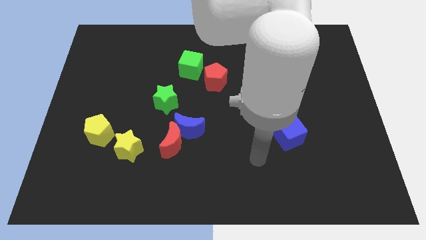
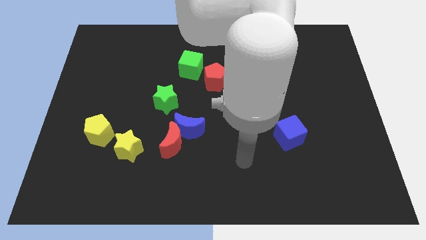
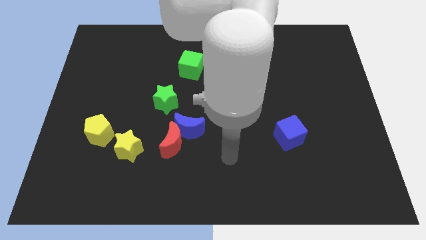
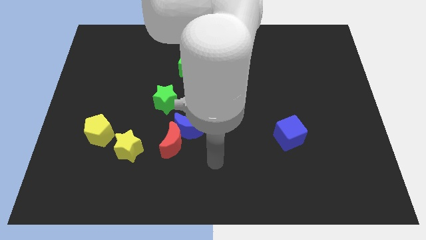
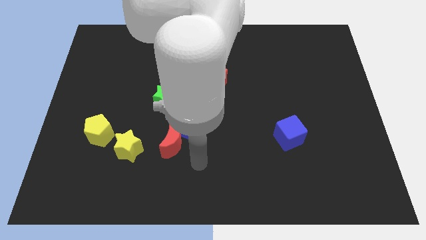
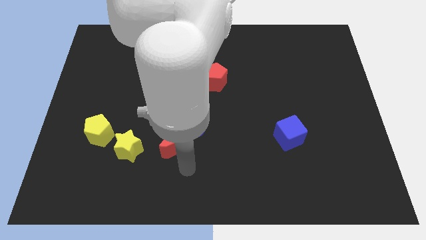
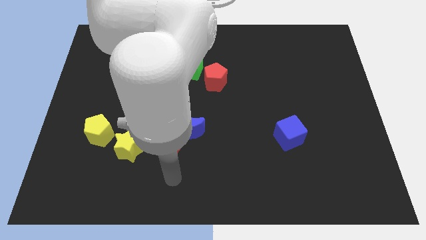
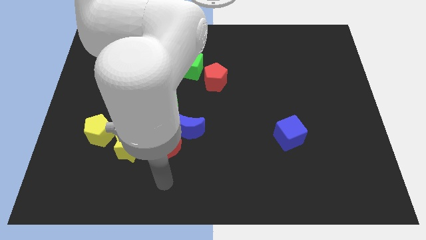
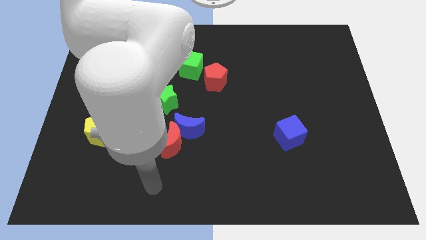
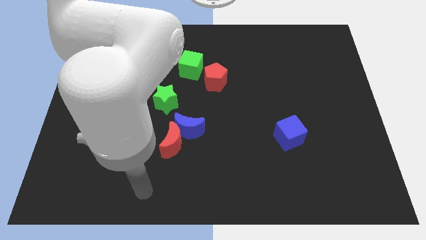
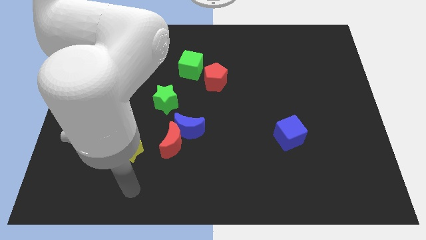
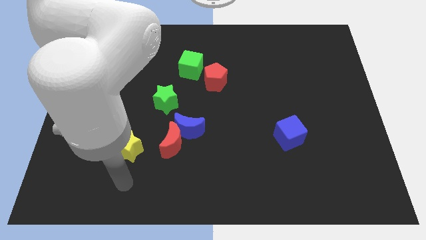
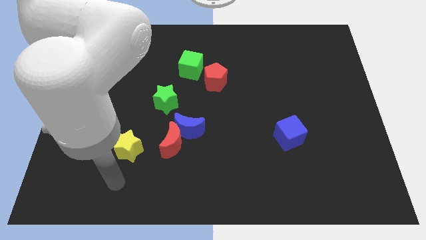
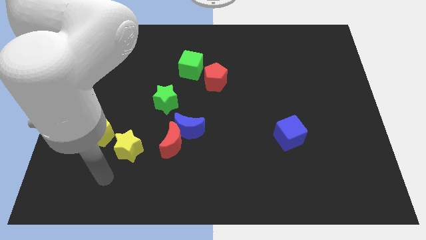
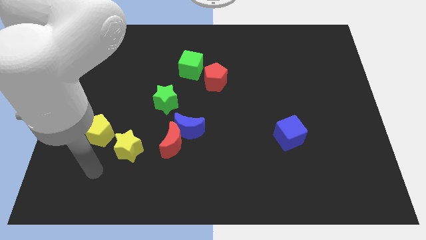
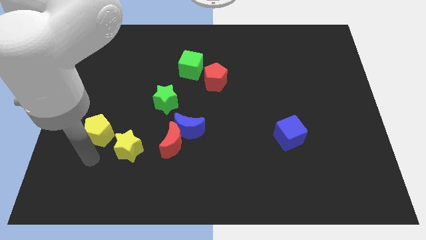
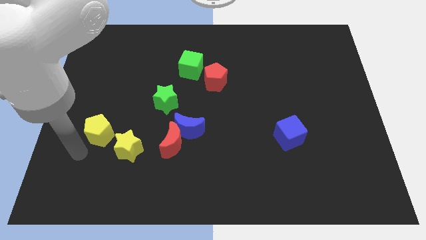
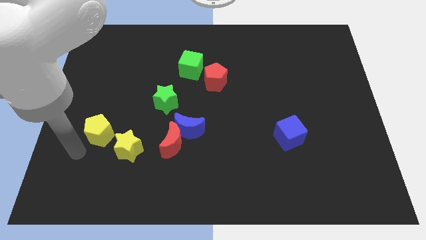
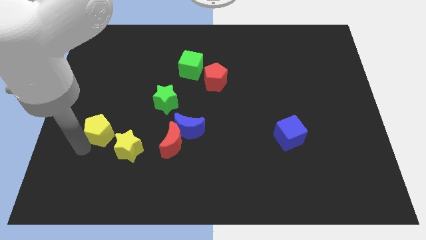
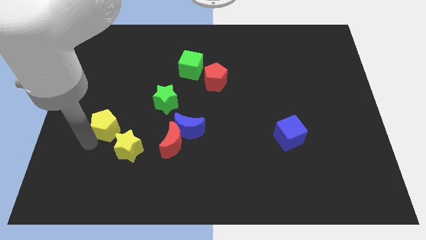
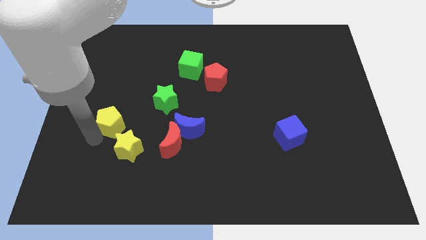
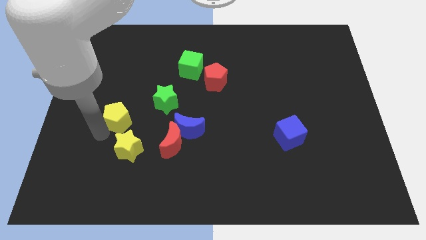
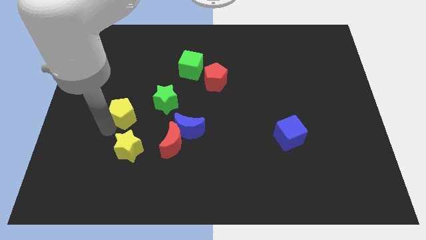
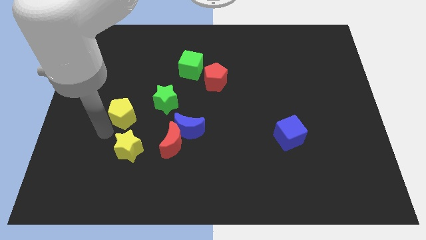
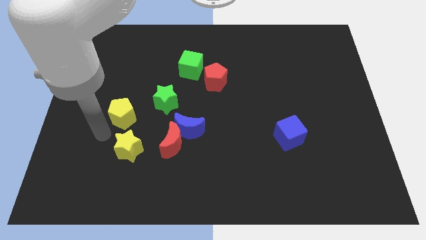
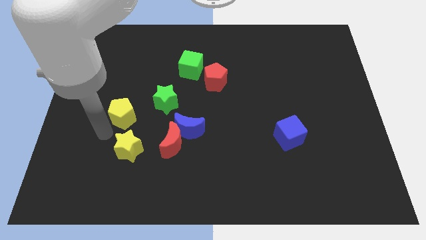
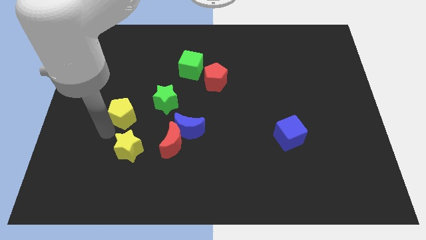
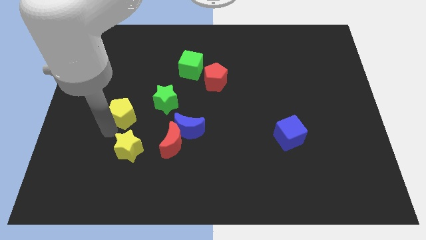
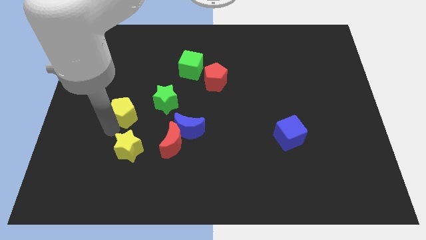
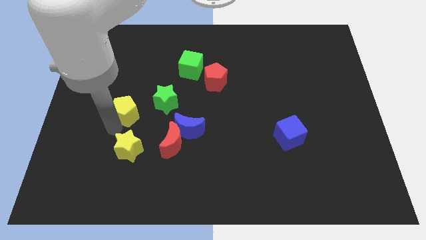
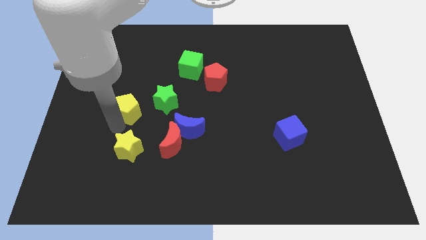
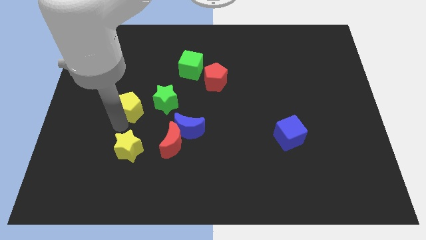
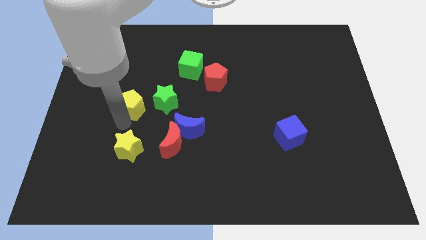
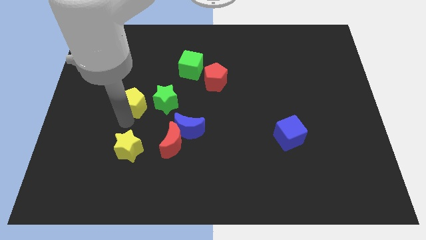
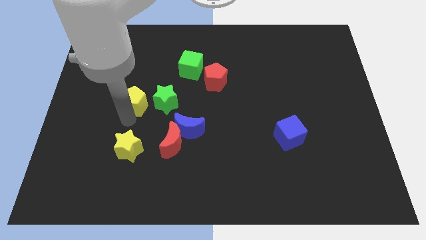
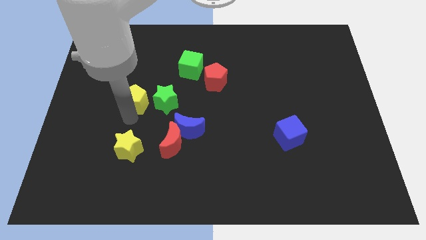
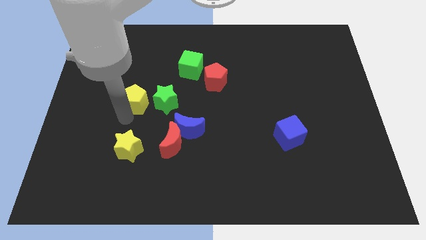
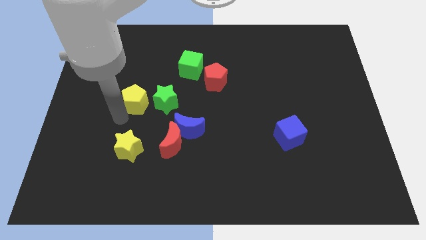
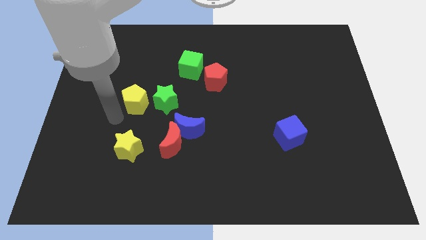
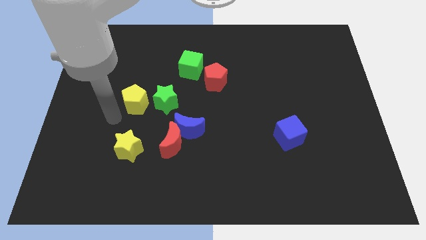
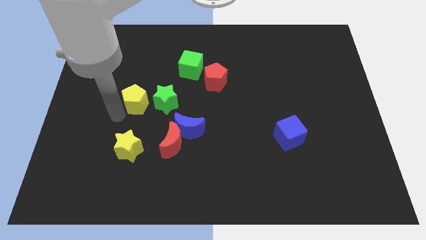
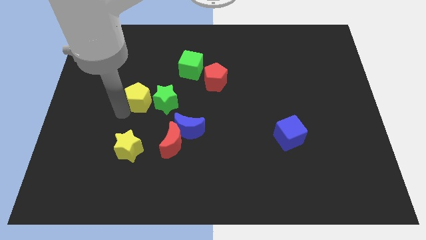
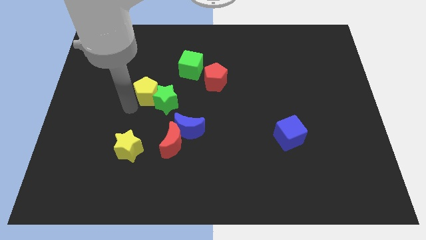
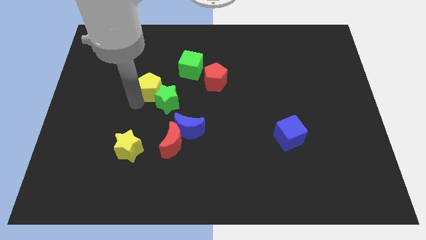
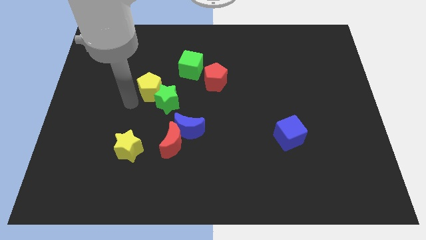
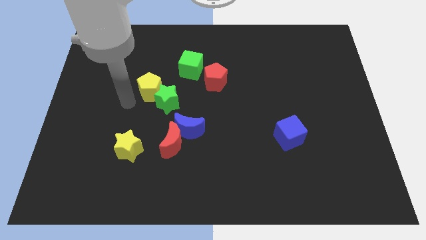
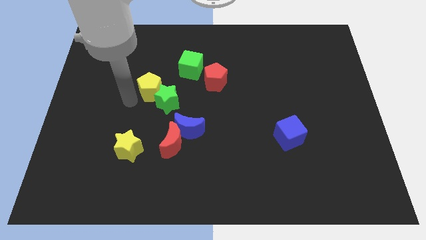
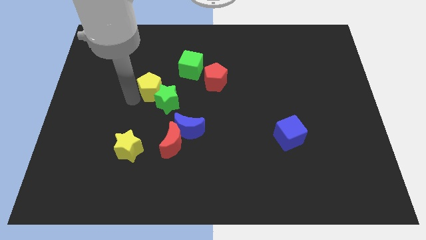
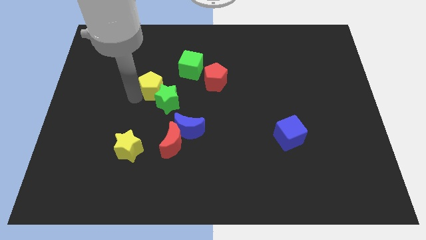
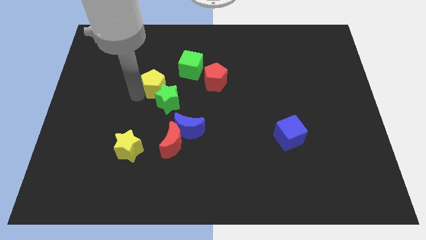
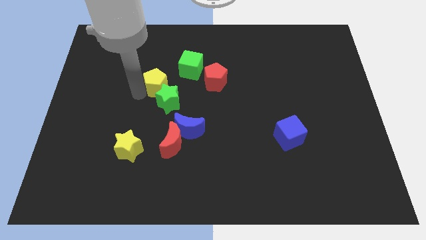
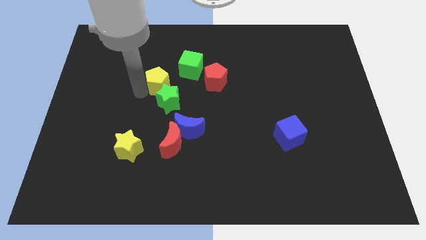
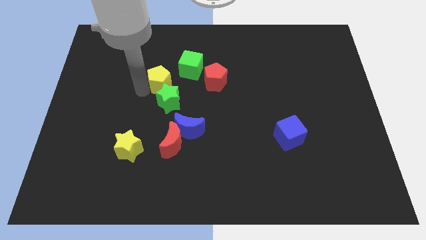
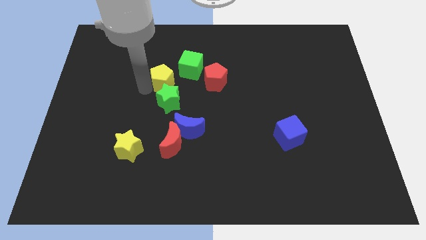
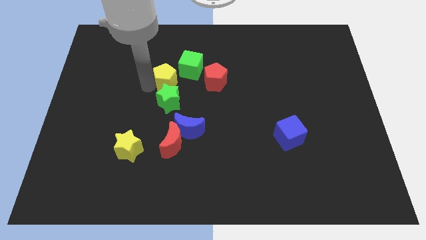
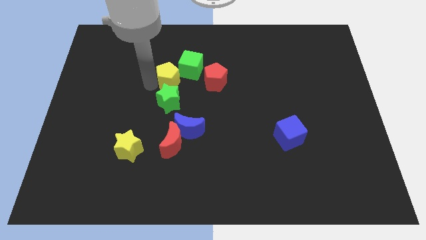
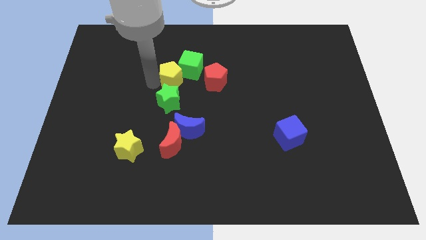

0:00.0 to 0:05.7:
push the yellow pentagon to the green cube

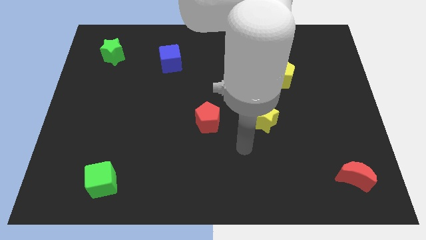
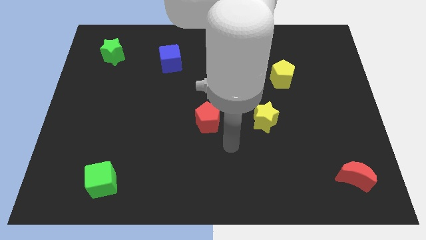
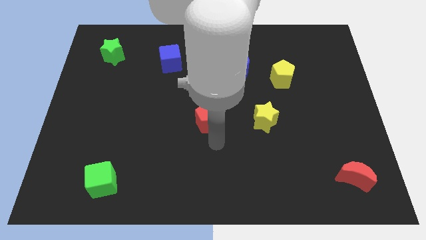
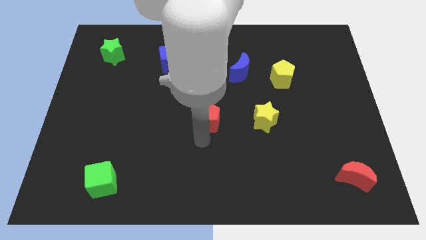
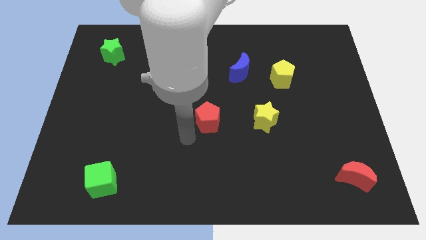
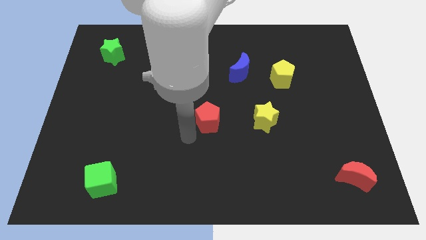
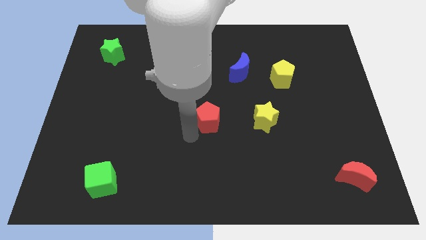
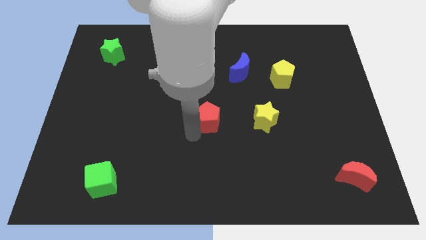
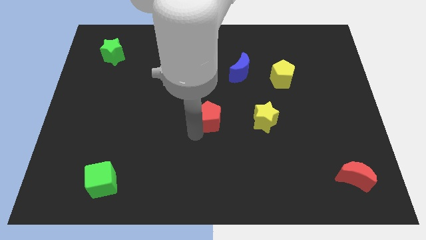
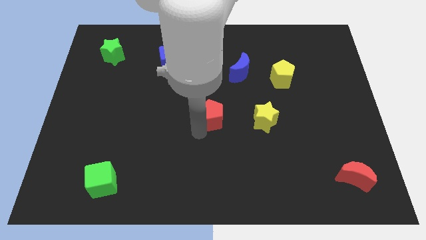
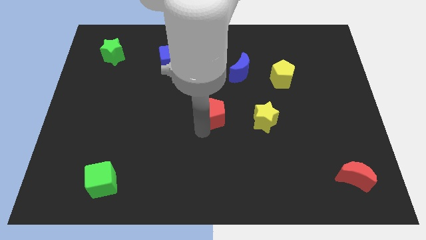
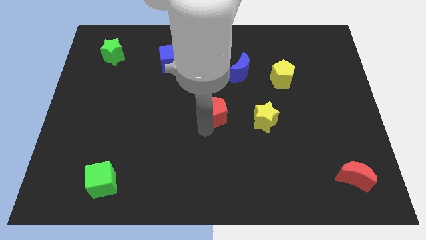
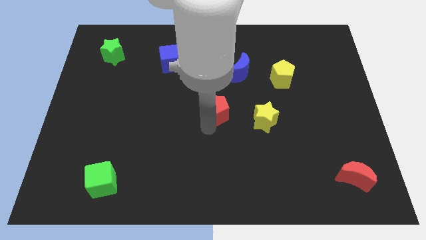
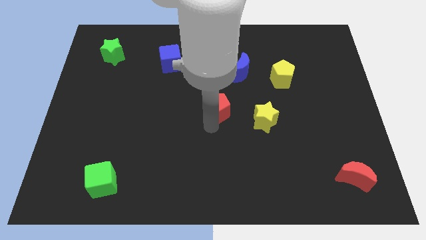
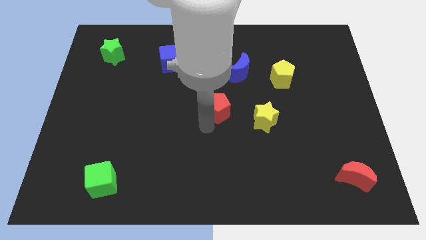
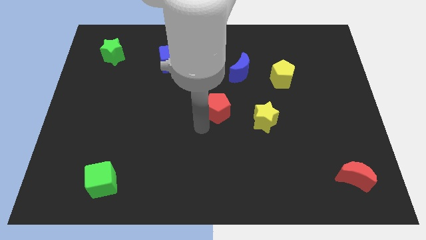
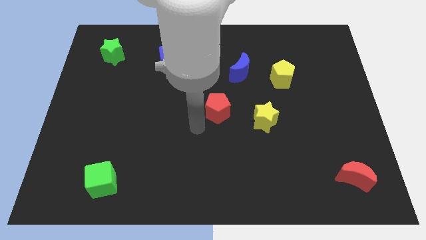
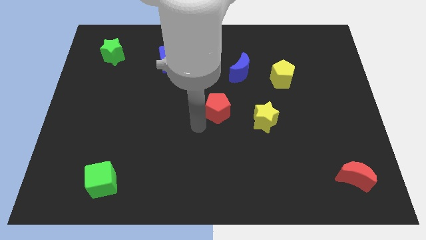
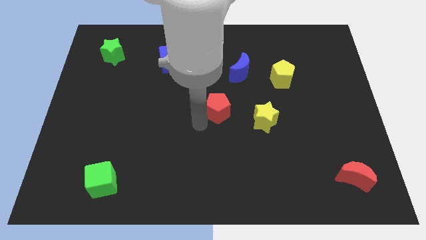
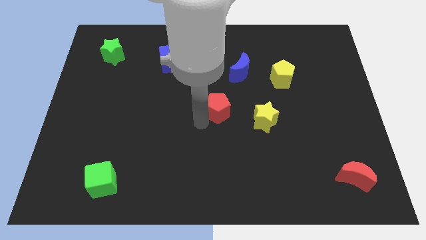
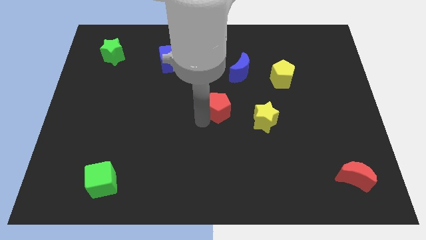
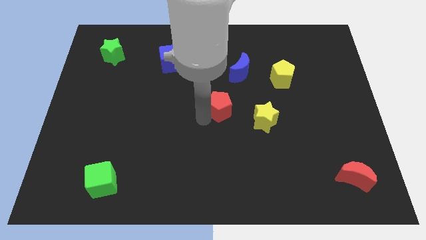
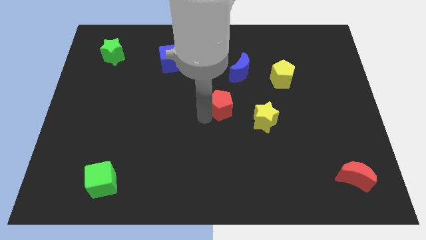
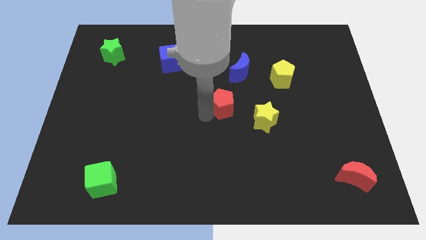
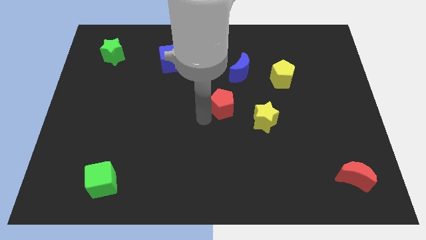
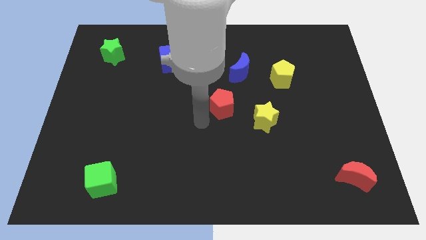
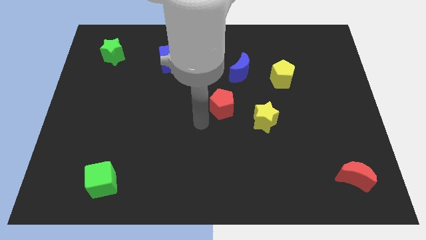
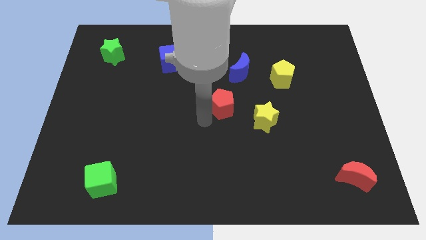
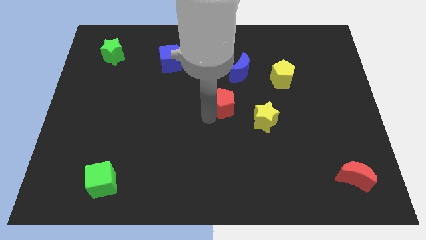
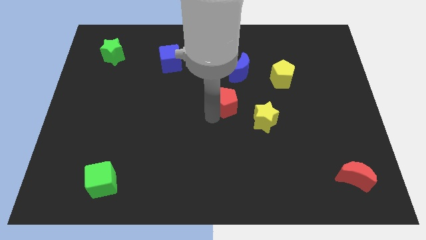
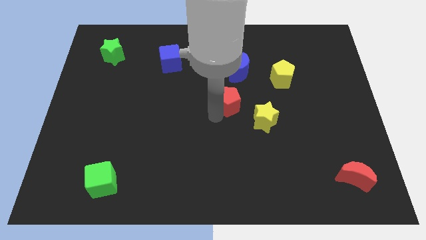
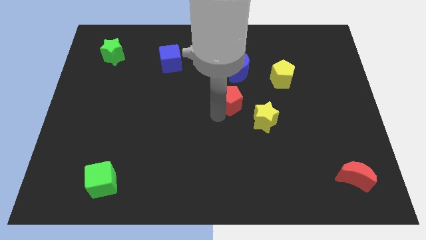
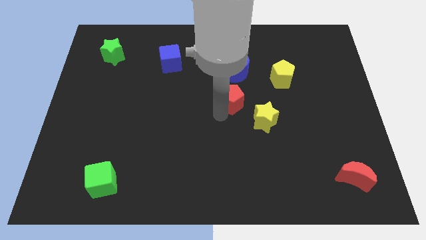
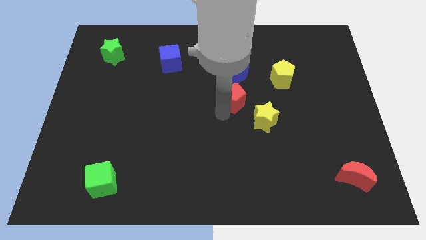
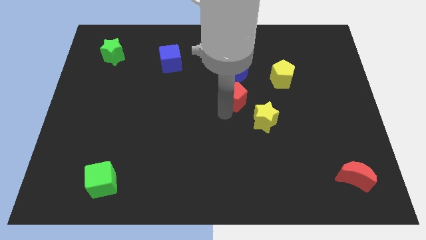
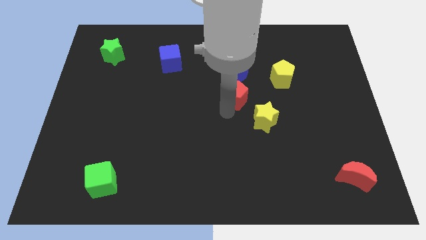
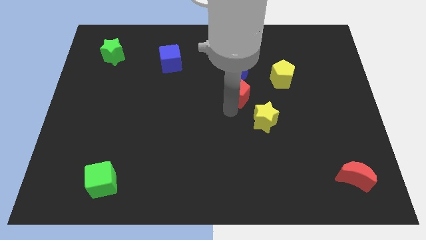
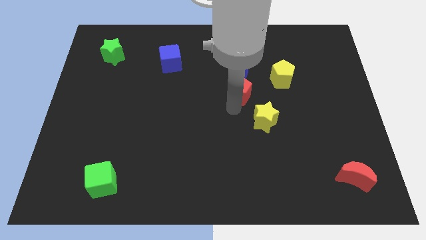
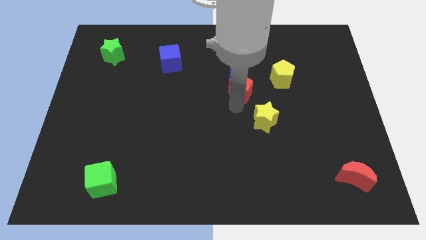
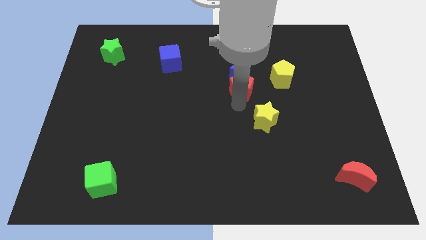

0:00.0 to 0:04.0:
put the red pentagon towards the blue moon
